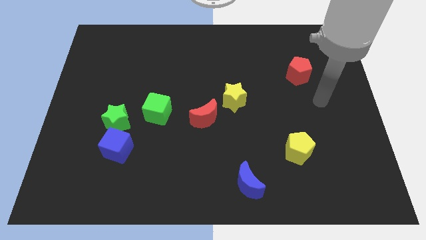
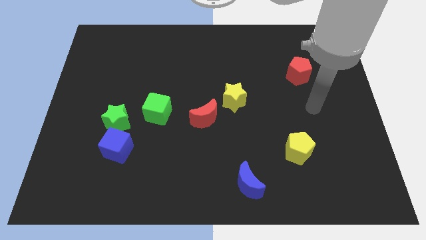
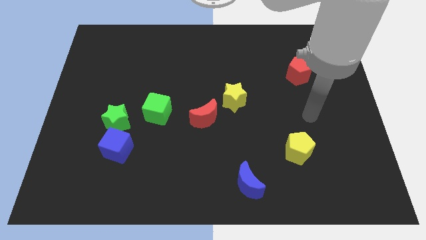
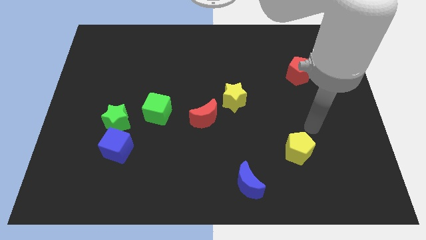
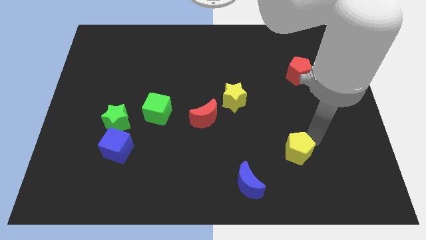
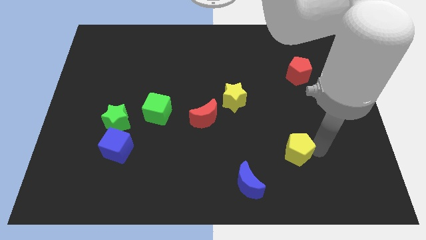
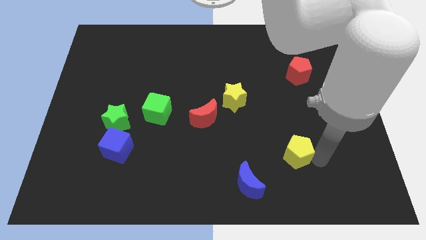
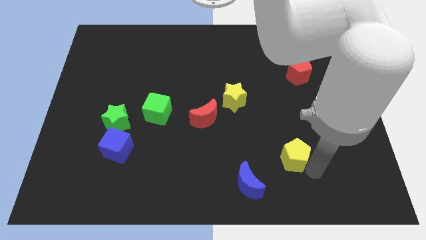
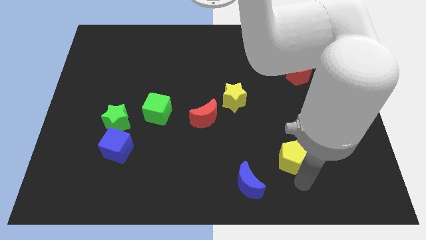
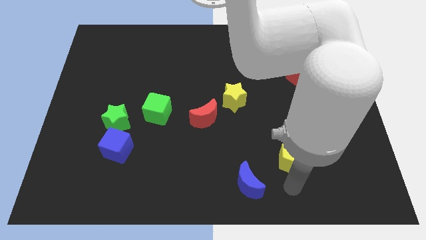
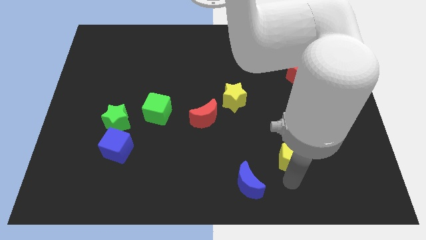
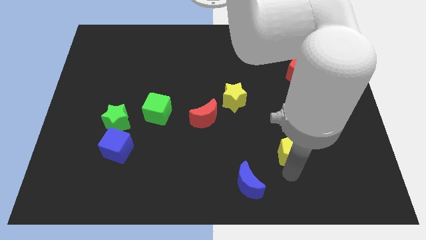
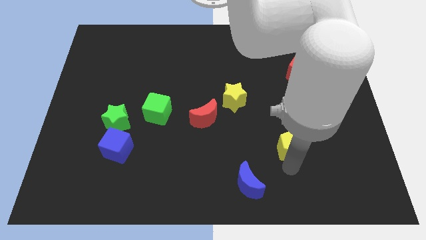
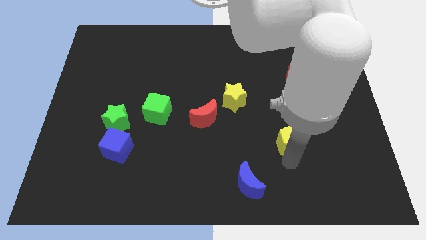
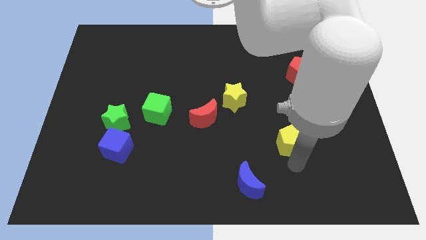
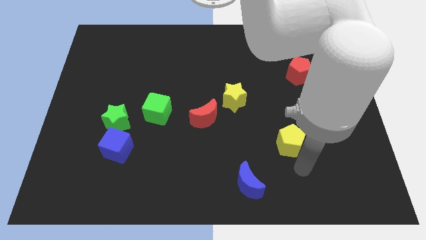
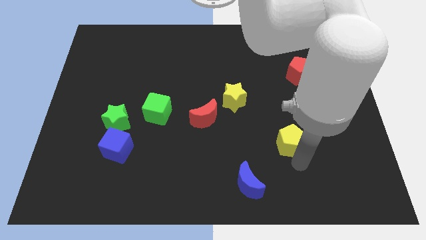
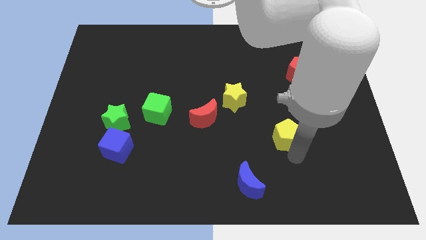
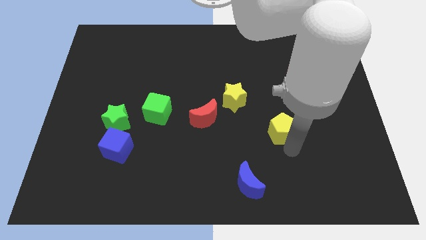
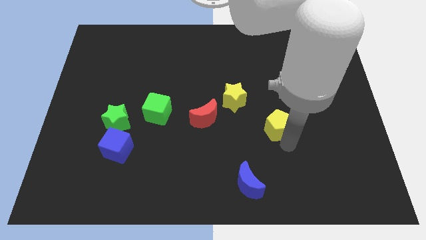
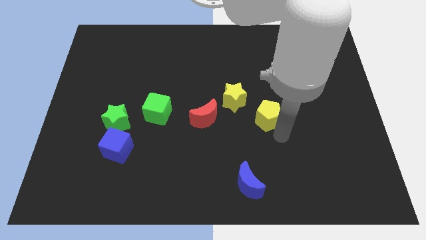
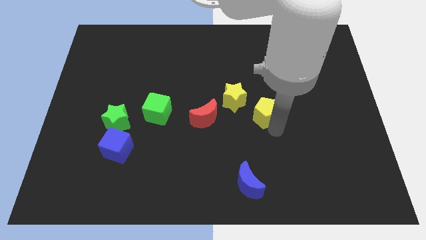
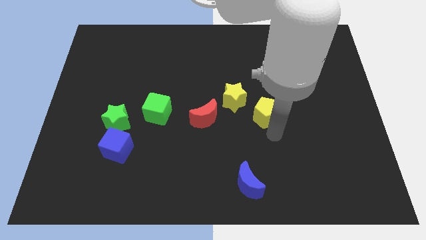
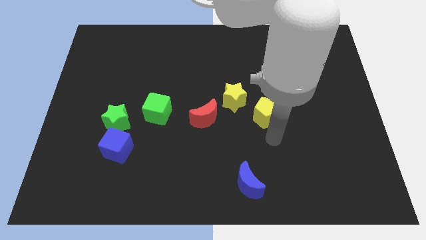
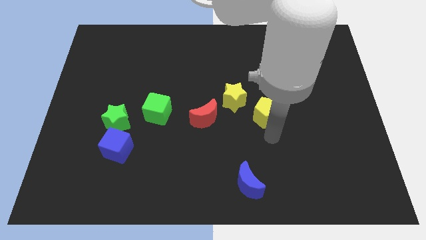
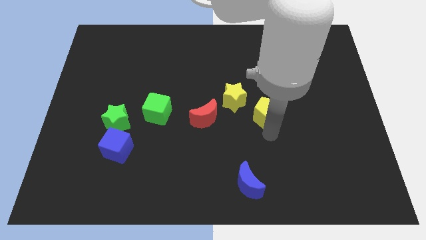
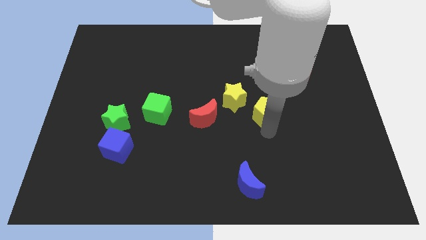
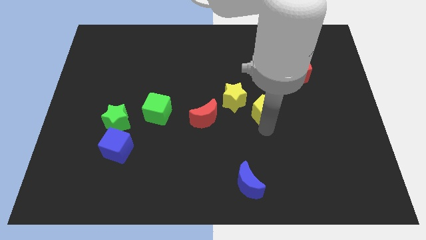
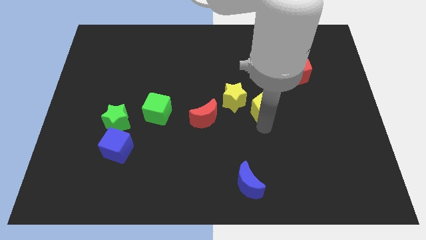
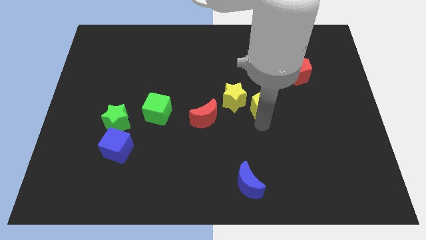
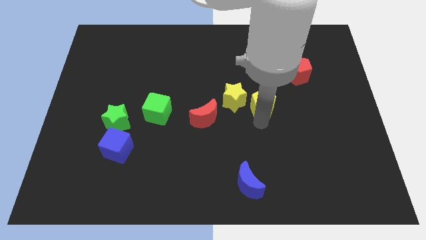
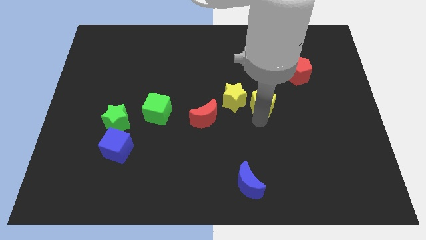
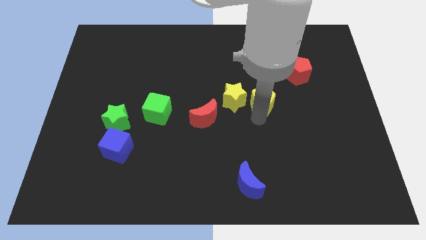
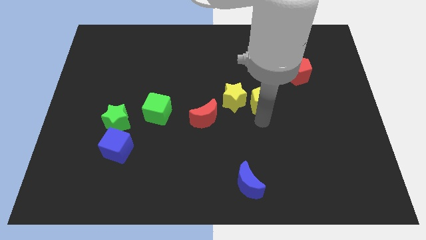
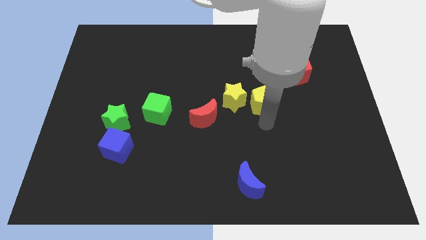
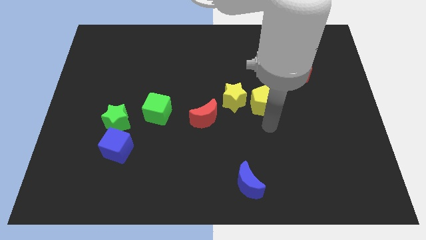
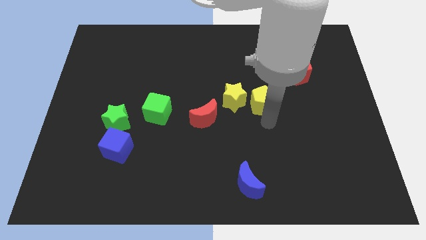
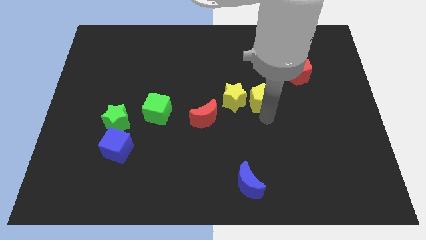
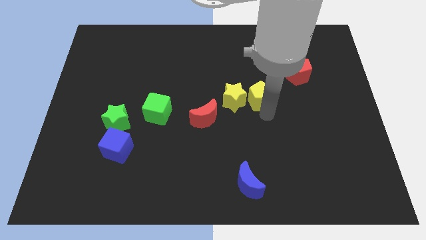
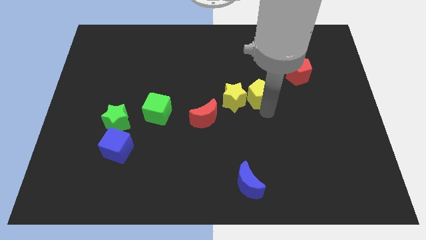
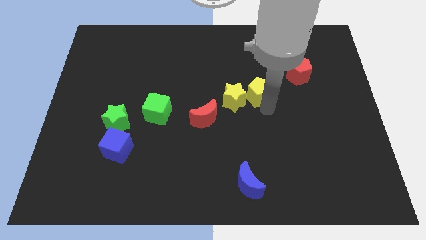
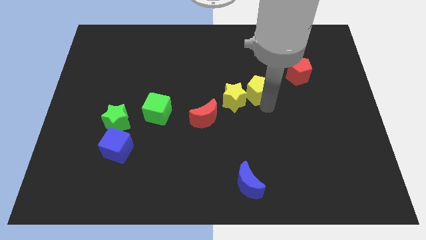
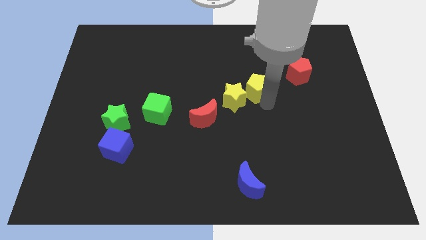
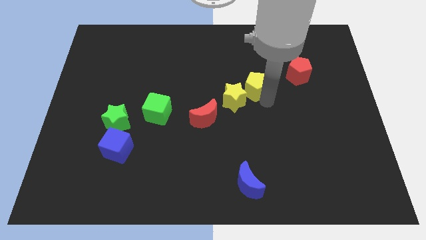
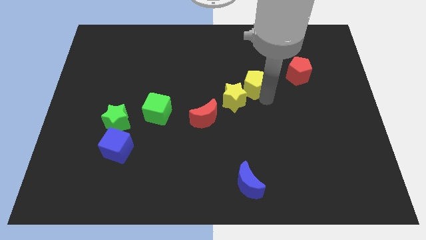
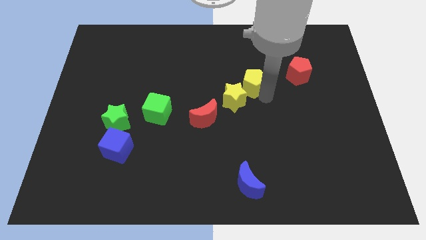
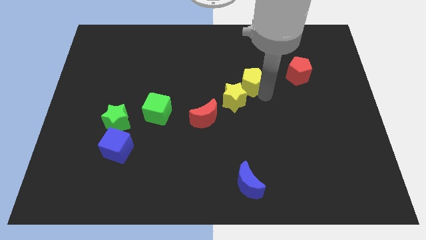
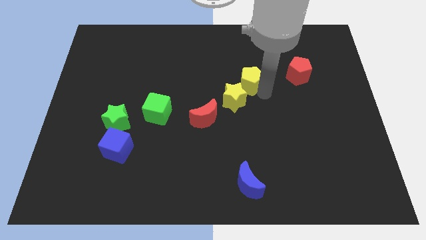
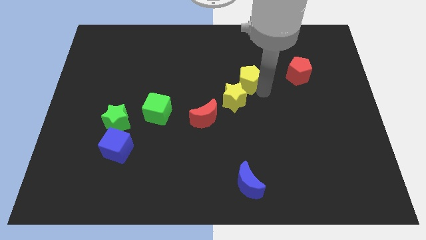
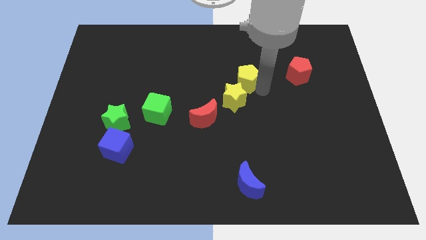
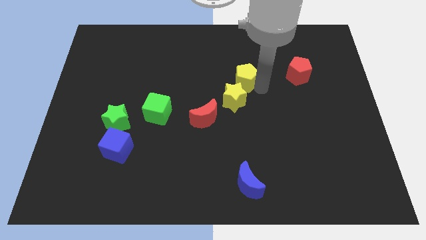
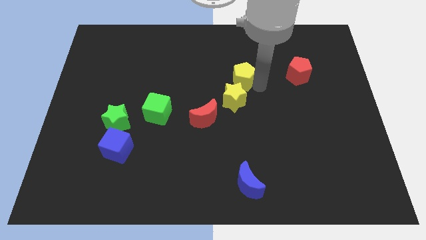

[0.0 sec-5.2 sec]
slide the yellow pentagon upwards and then left

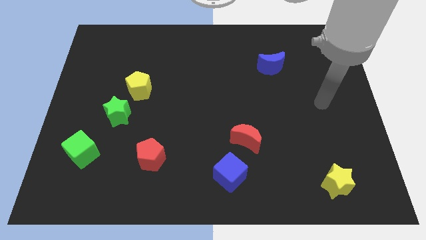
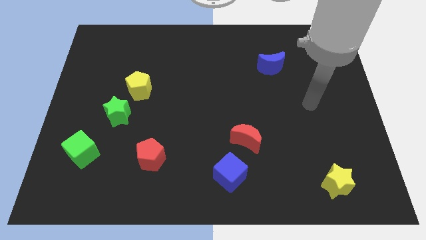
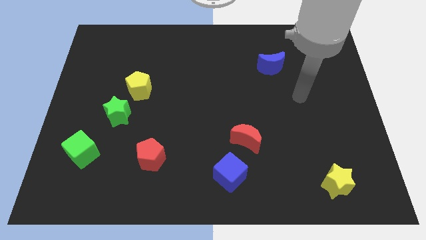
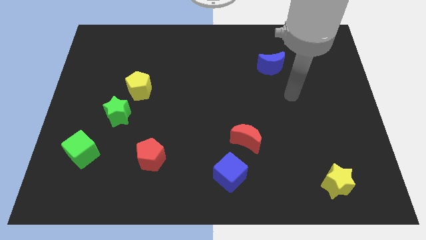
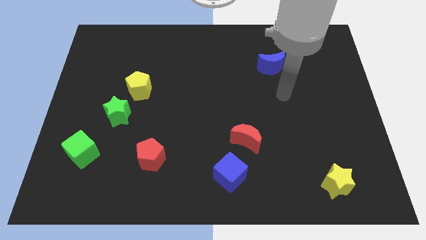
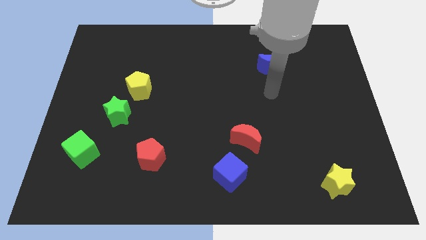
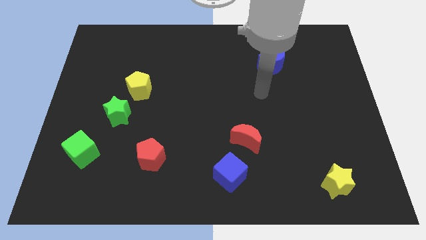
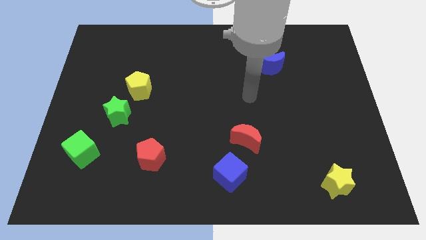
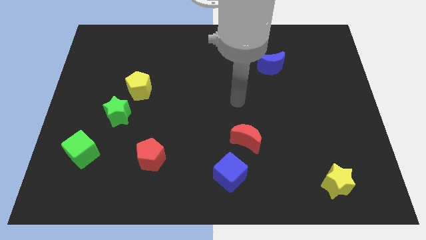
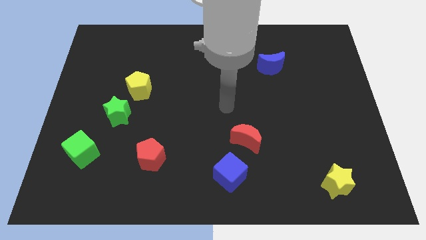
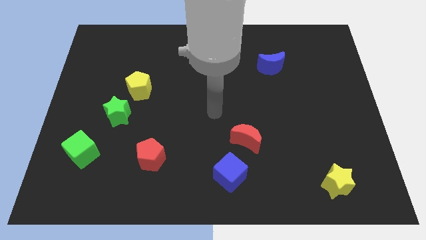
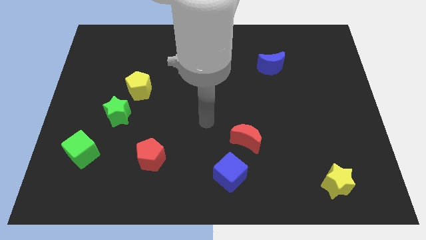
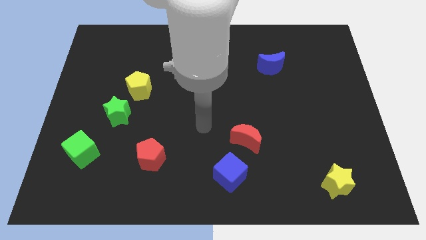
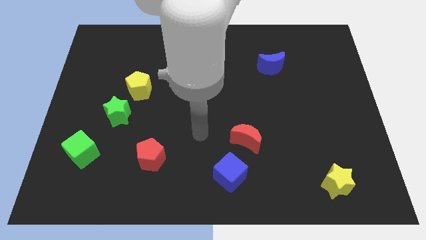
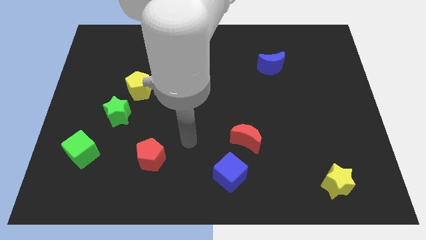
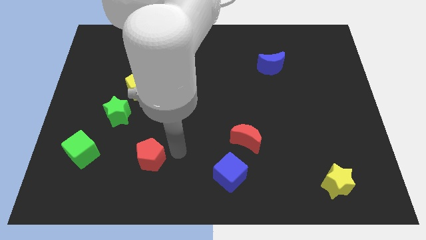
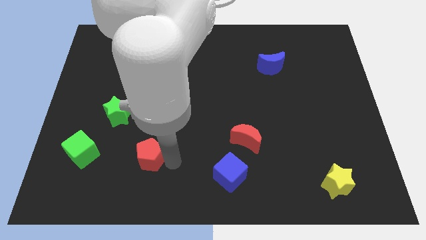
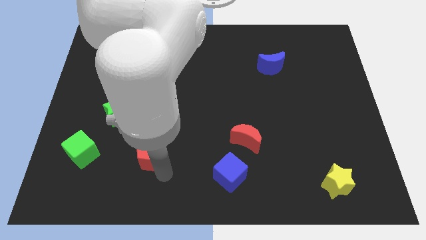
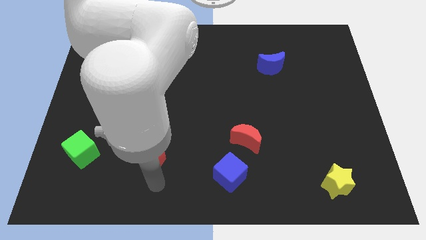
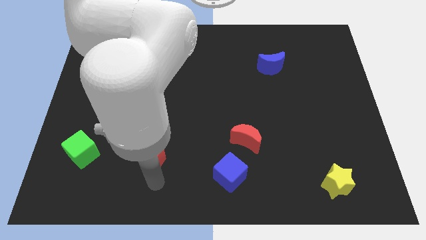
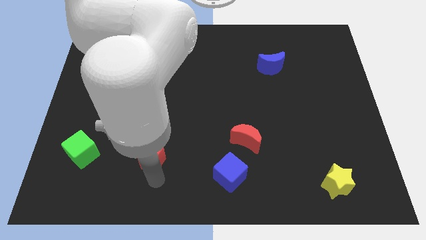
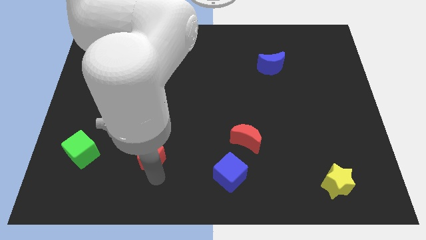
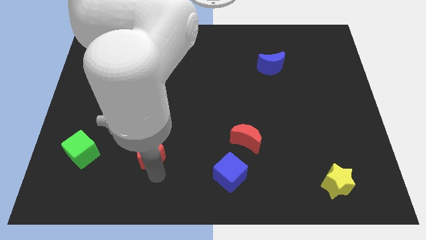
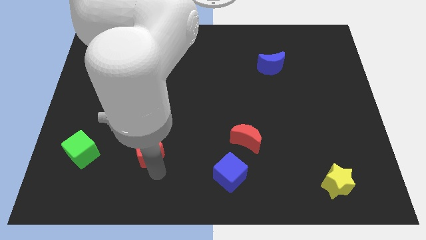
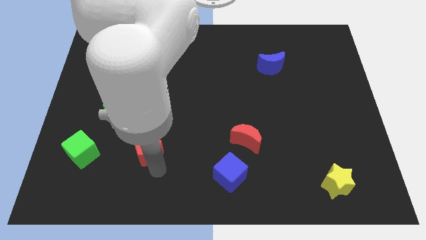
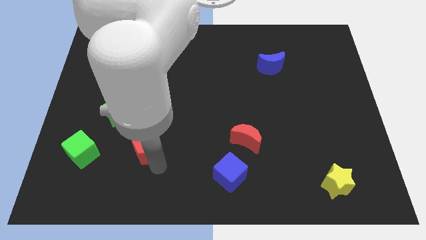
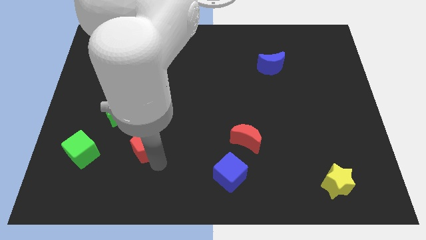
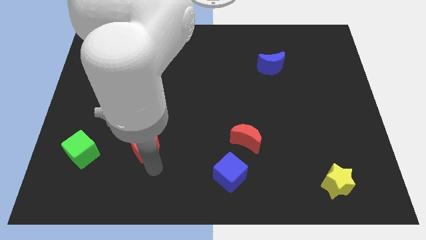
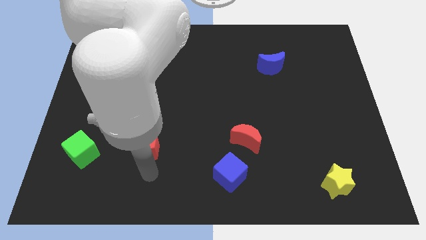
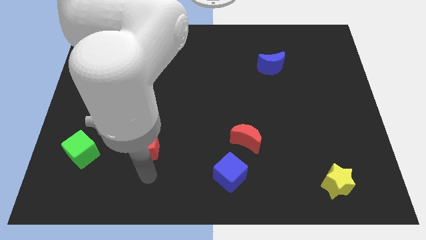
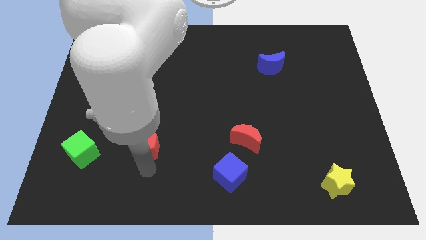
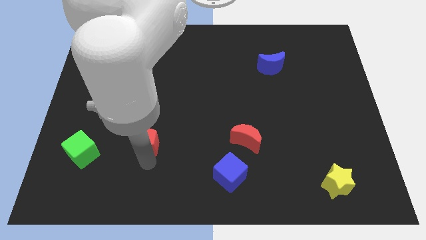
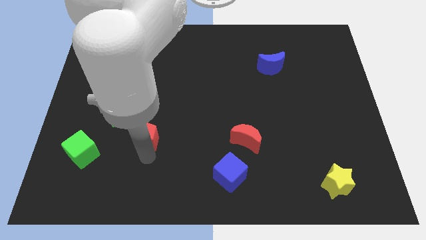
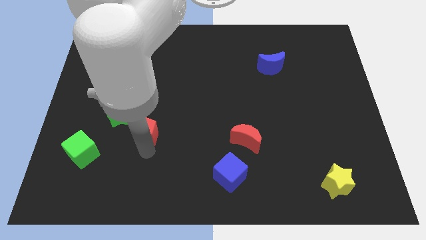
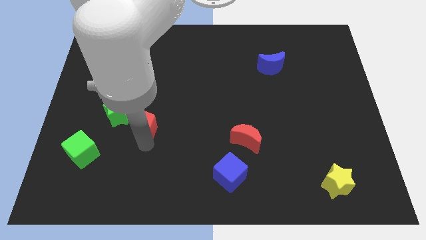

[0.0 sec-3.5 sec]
move the red pentagon up somewhat
